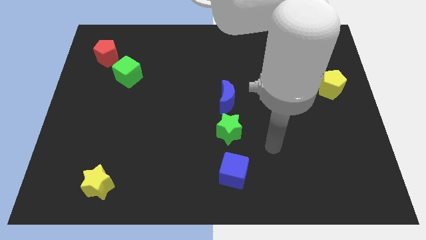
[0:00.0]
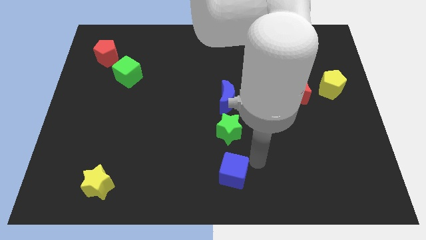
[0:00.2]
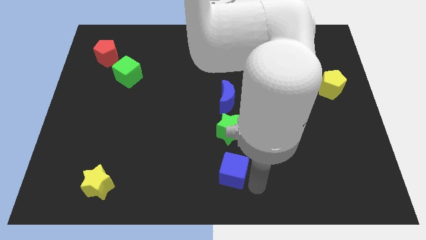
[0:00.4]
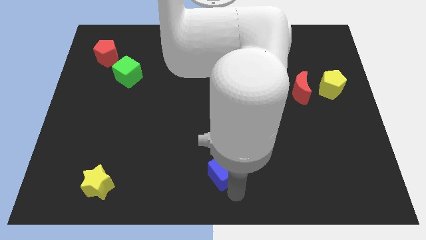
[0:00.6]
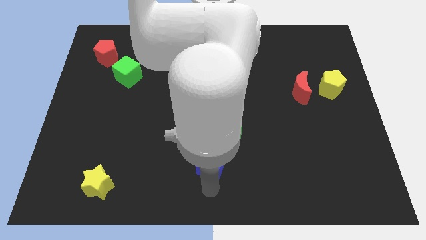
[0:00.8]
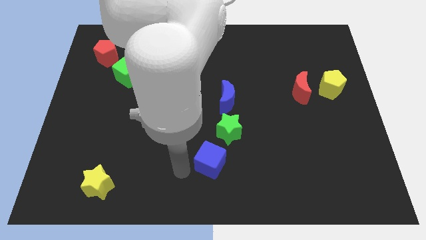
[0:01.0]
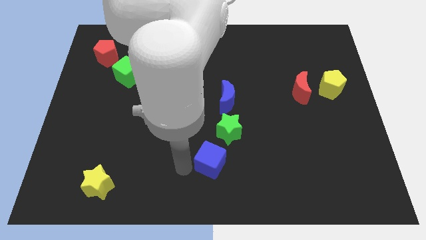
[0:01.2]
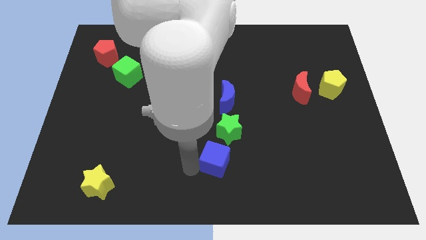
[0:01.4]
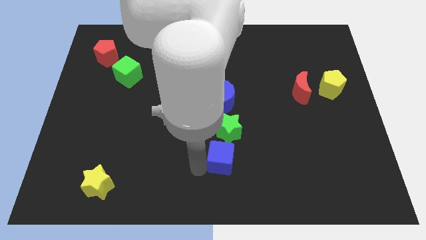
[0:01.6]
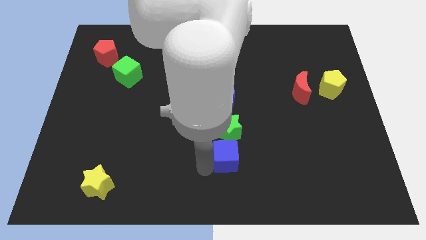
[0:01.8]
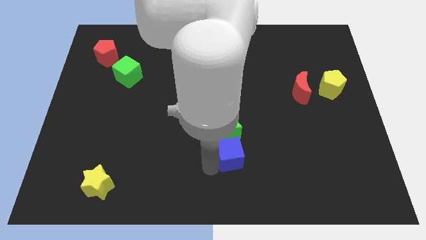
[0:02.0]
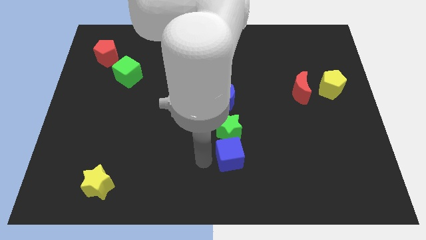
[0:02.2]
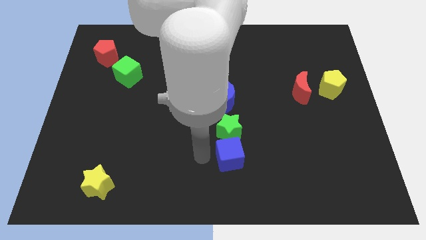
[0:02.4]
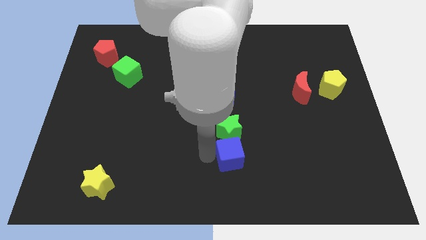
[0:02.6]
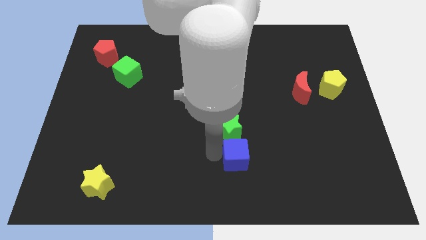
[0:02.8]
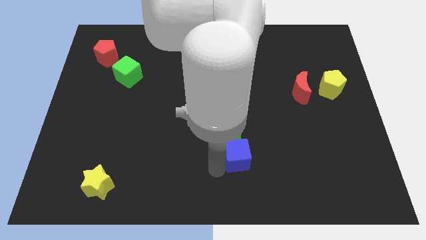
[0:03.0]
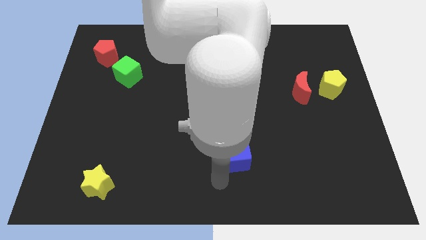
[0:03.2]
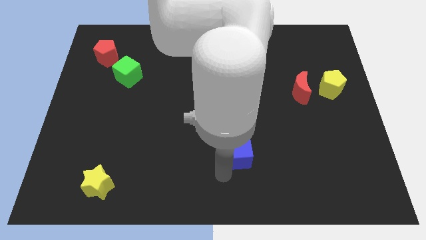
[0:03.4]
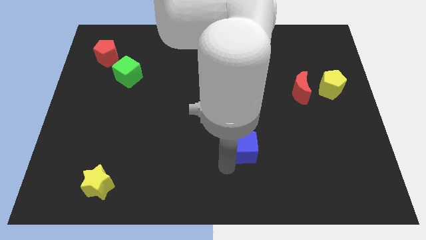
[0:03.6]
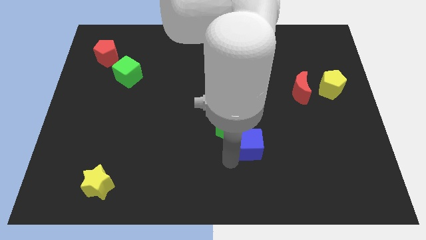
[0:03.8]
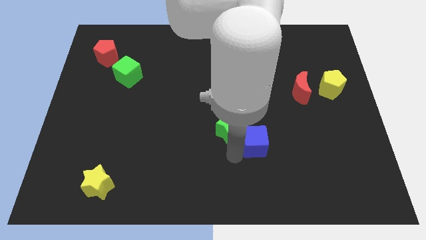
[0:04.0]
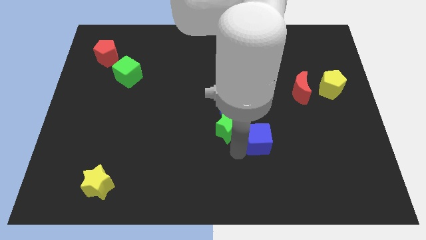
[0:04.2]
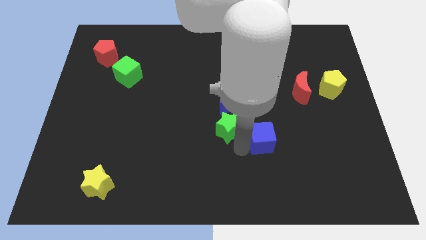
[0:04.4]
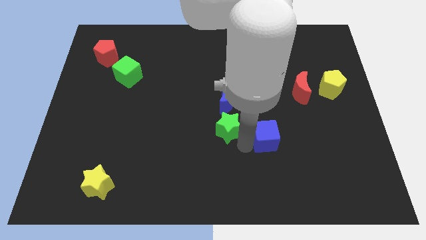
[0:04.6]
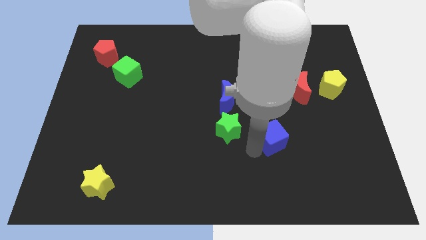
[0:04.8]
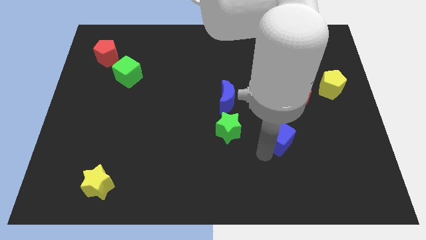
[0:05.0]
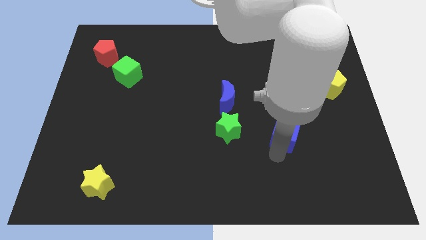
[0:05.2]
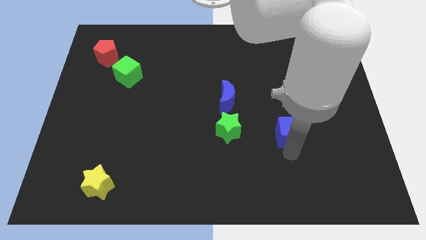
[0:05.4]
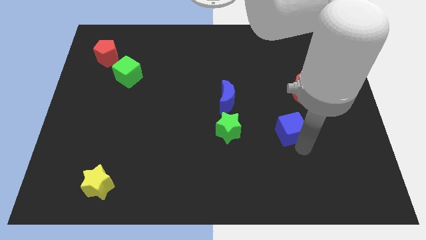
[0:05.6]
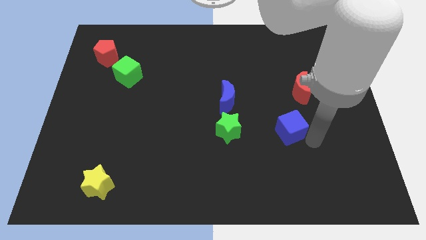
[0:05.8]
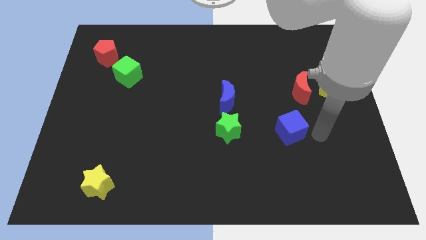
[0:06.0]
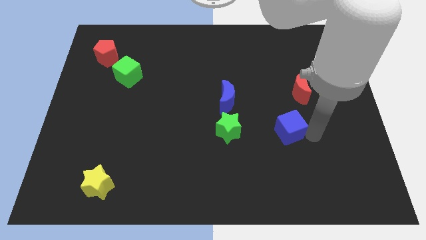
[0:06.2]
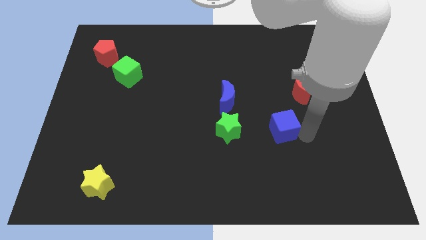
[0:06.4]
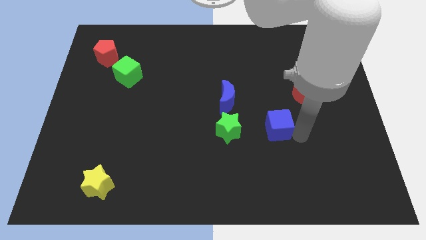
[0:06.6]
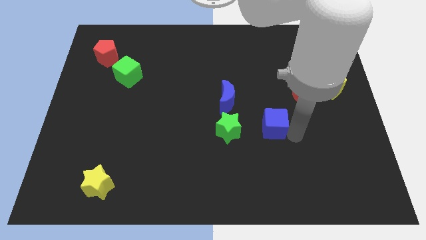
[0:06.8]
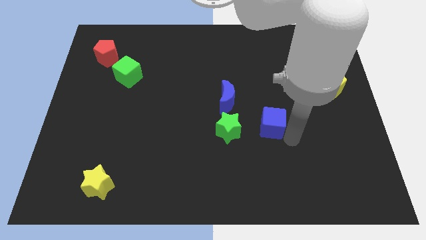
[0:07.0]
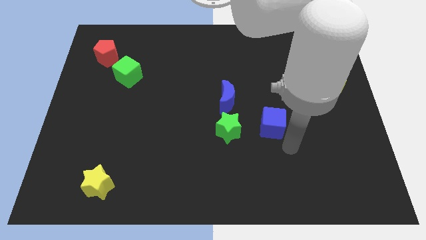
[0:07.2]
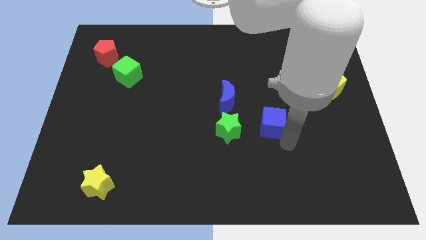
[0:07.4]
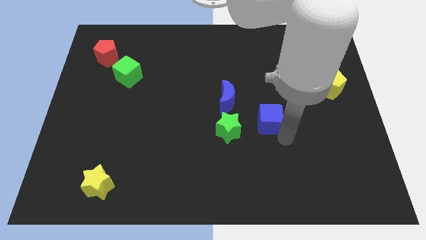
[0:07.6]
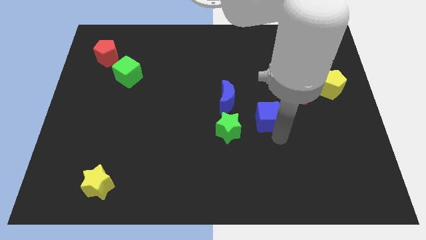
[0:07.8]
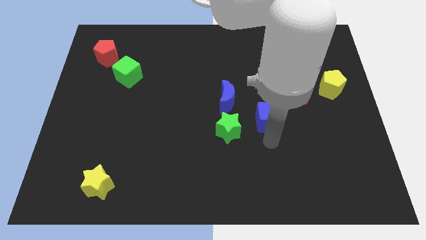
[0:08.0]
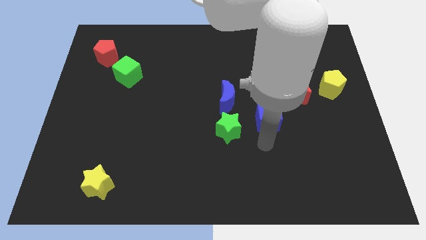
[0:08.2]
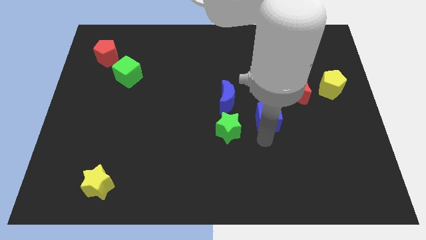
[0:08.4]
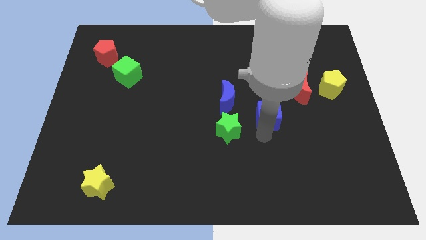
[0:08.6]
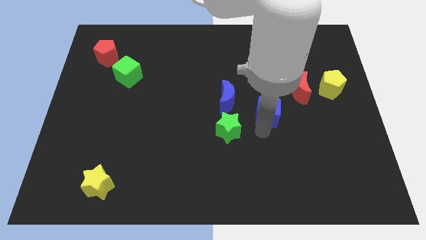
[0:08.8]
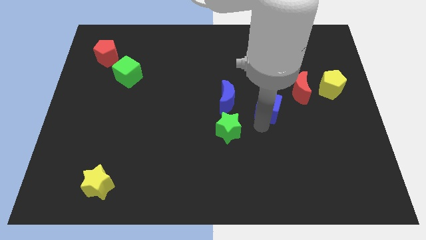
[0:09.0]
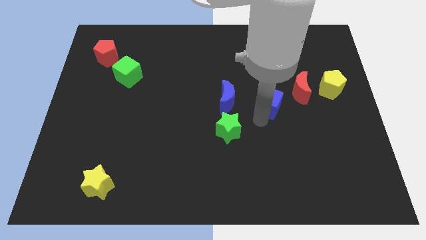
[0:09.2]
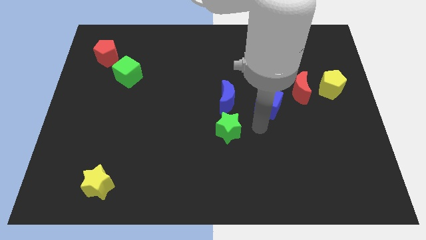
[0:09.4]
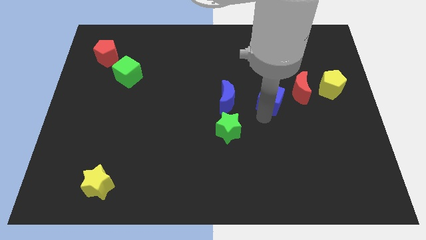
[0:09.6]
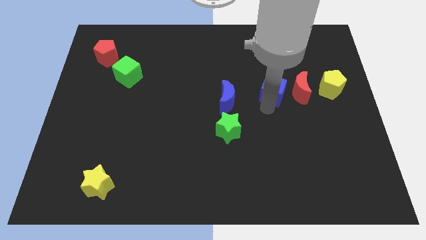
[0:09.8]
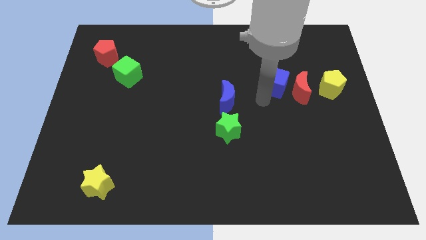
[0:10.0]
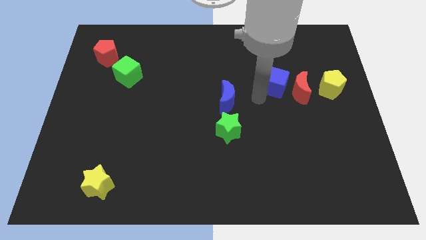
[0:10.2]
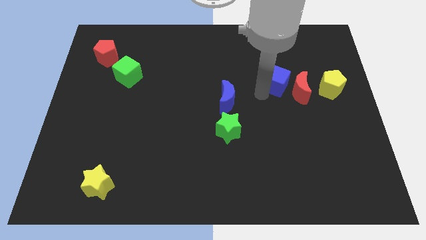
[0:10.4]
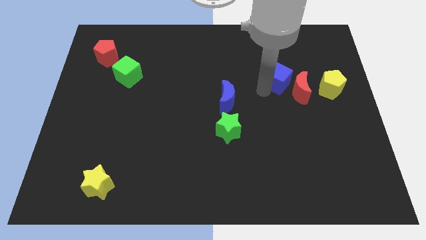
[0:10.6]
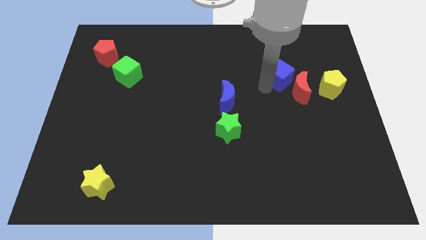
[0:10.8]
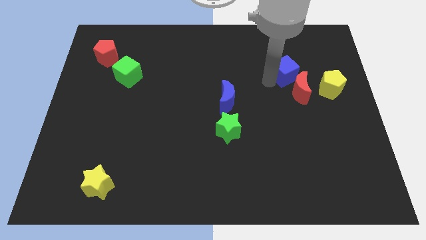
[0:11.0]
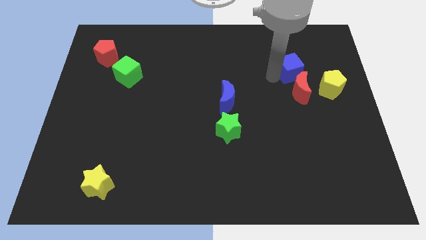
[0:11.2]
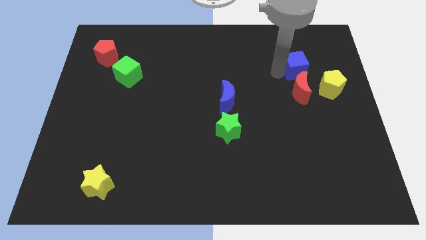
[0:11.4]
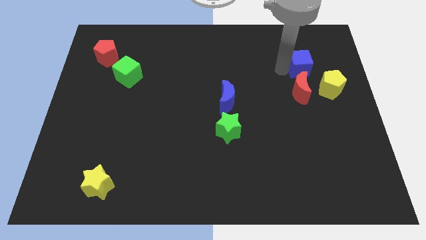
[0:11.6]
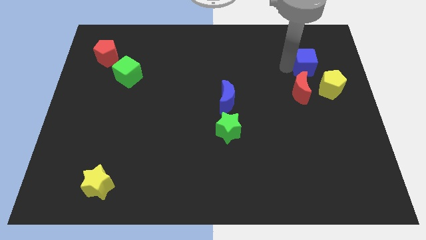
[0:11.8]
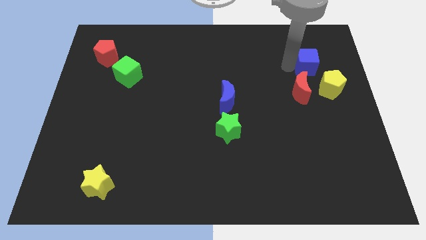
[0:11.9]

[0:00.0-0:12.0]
slide the blue cube to the top of the yellow pentagon
